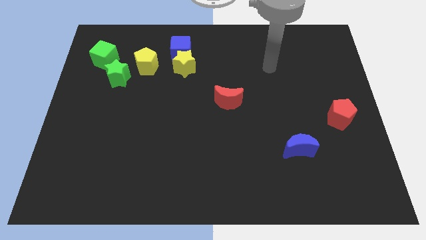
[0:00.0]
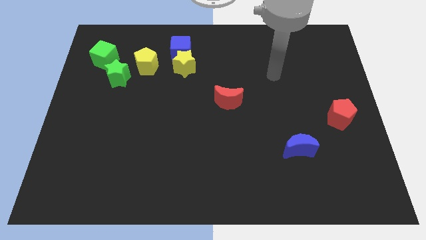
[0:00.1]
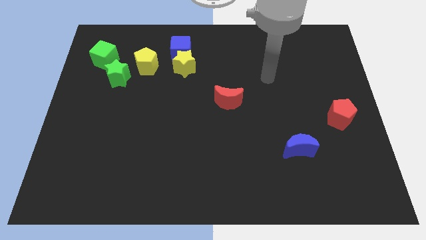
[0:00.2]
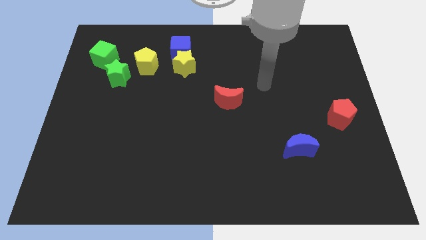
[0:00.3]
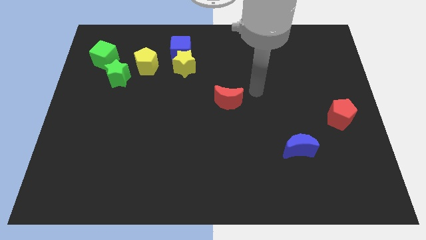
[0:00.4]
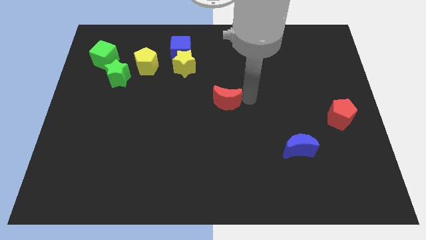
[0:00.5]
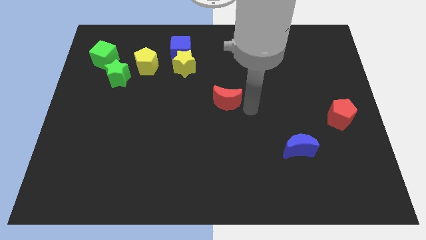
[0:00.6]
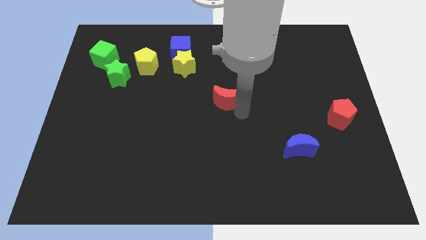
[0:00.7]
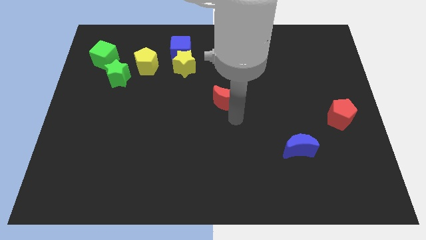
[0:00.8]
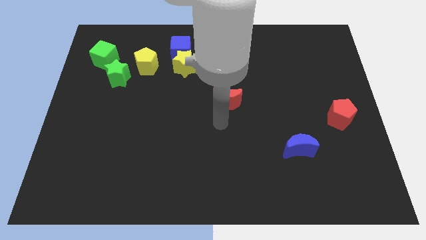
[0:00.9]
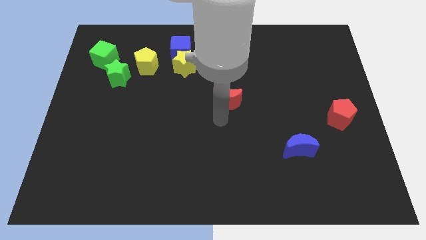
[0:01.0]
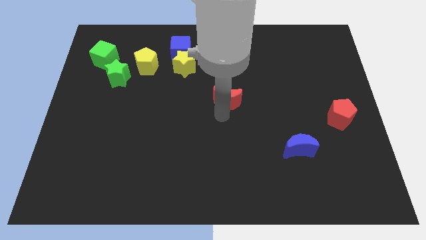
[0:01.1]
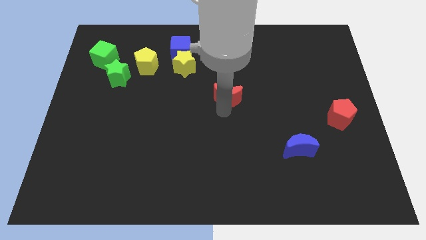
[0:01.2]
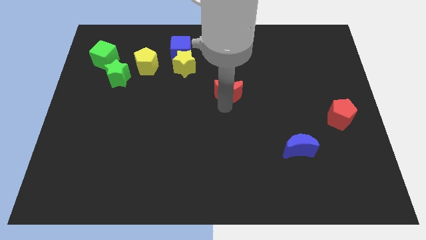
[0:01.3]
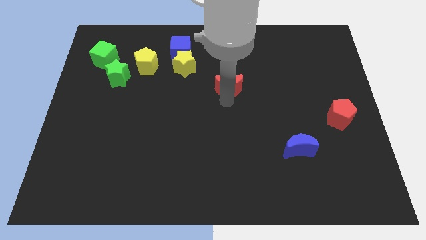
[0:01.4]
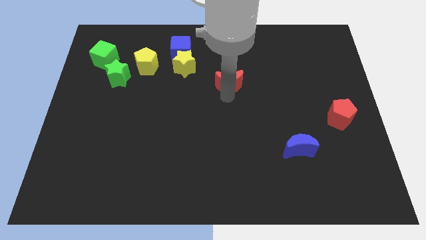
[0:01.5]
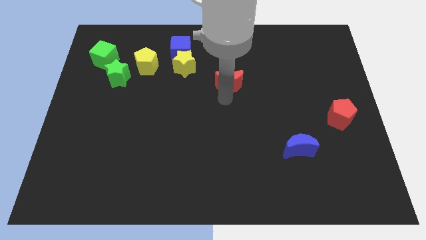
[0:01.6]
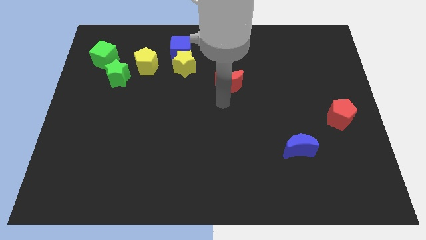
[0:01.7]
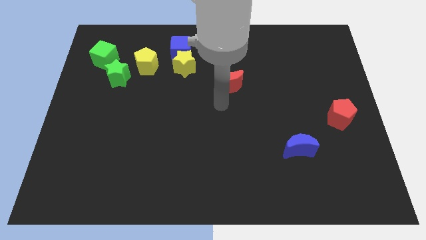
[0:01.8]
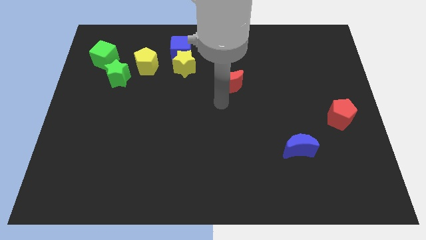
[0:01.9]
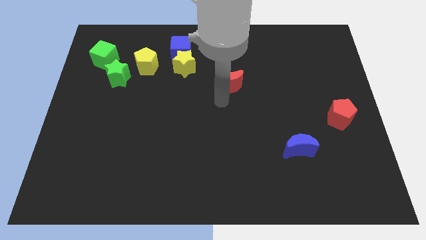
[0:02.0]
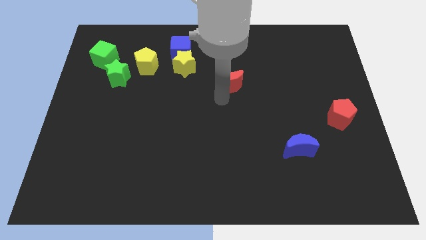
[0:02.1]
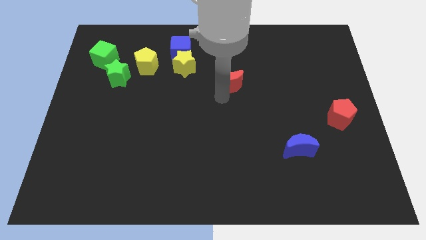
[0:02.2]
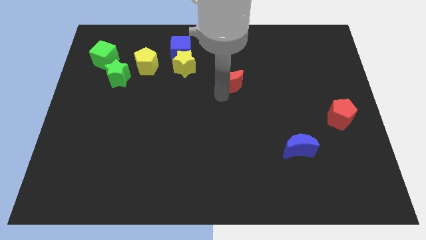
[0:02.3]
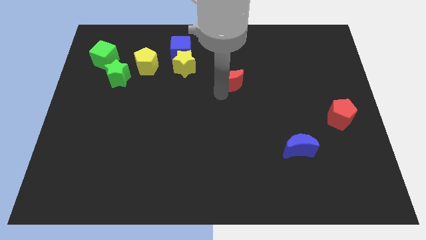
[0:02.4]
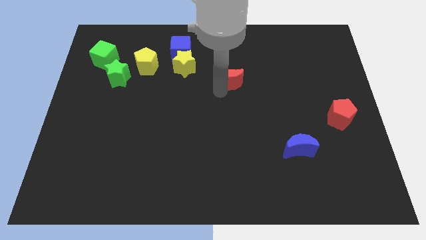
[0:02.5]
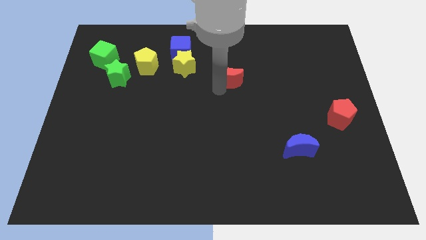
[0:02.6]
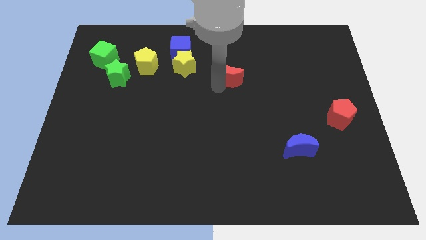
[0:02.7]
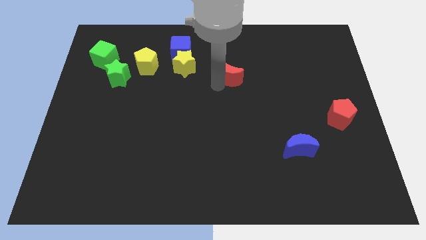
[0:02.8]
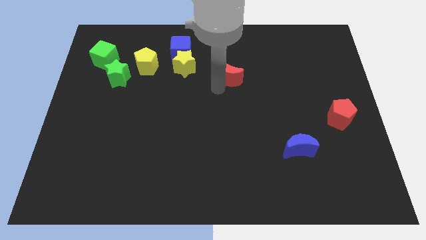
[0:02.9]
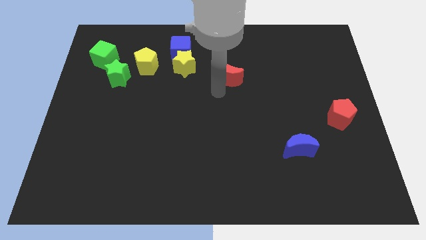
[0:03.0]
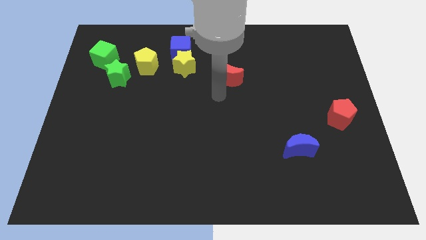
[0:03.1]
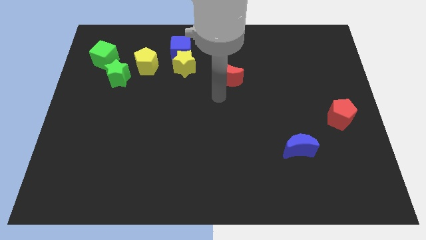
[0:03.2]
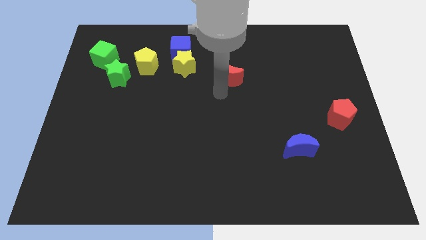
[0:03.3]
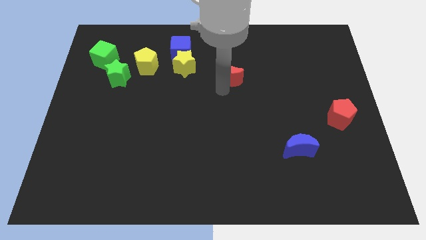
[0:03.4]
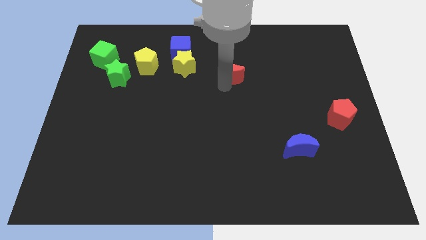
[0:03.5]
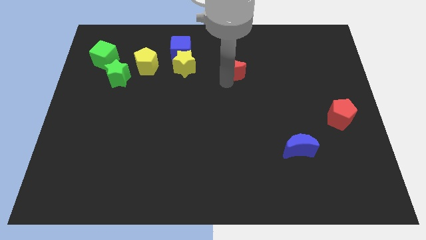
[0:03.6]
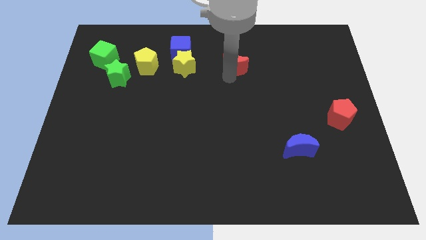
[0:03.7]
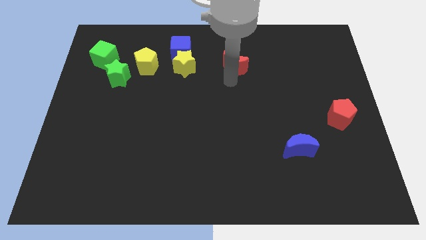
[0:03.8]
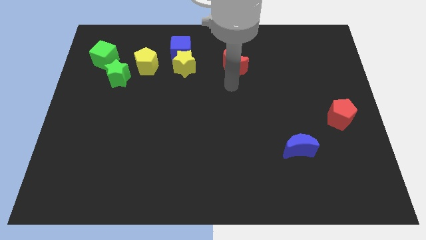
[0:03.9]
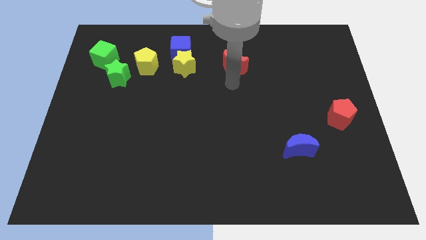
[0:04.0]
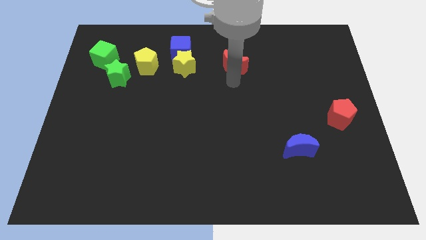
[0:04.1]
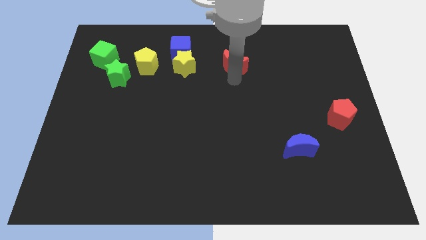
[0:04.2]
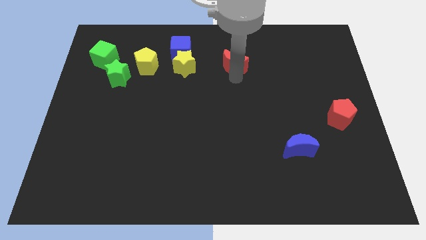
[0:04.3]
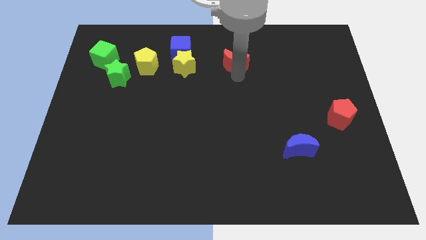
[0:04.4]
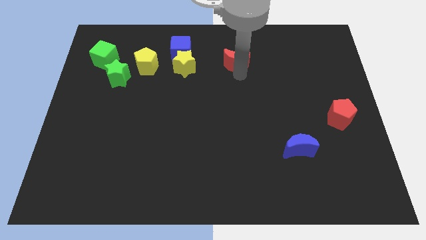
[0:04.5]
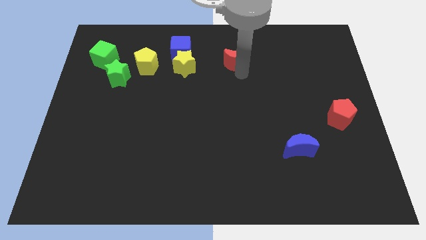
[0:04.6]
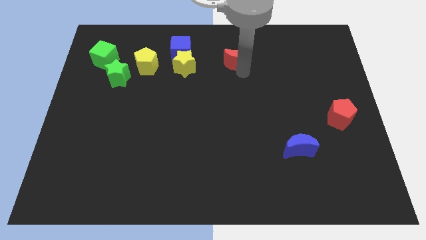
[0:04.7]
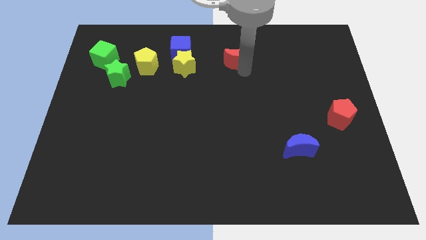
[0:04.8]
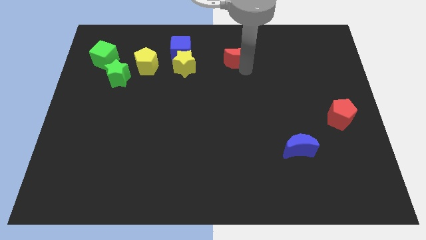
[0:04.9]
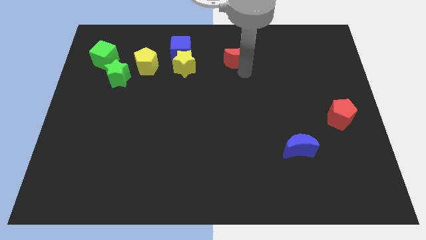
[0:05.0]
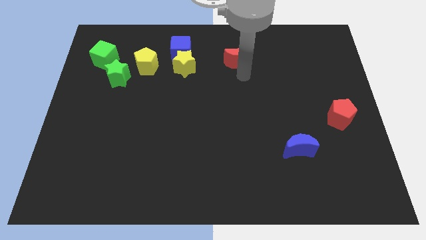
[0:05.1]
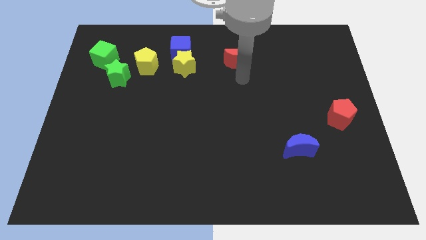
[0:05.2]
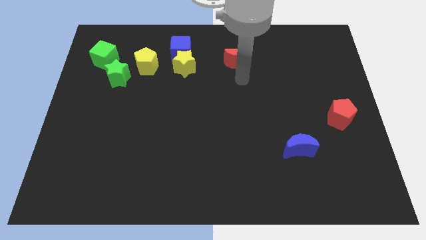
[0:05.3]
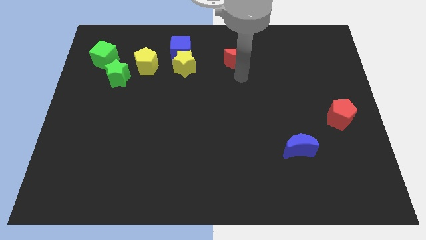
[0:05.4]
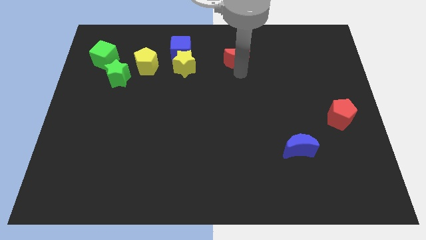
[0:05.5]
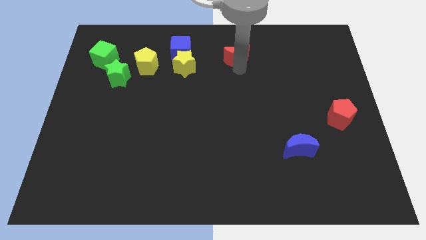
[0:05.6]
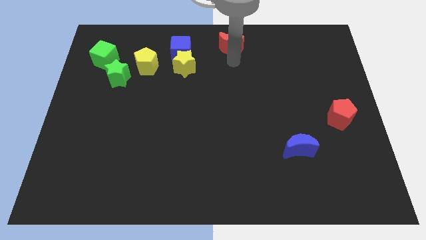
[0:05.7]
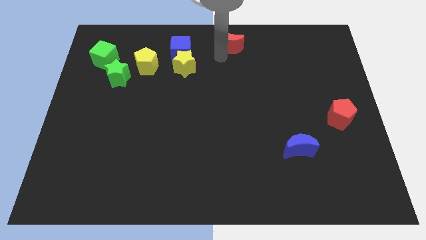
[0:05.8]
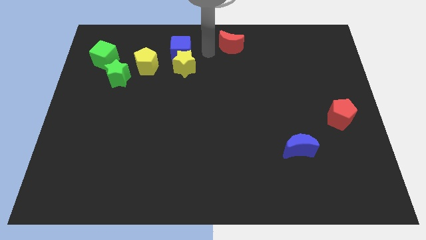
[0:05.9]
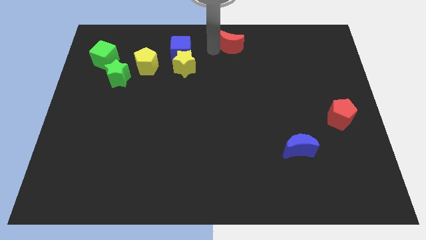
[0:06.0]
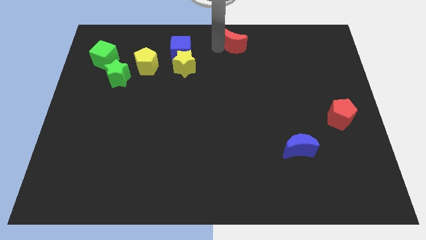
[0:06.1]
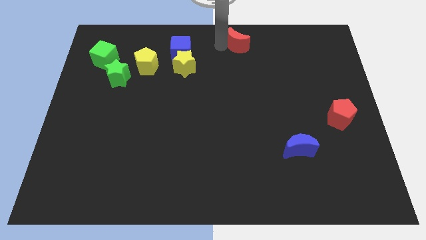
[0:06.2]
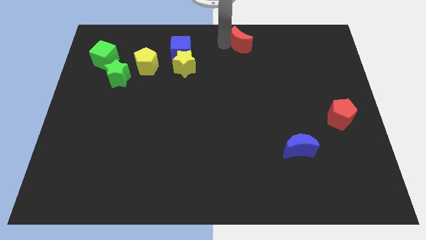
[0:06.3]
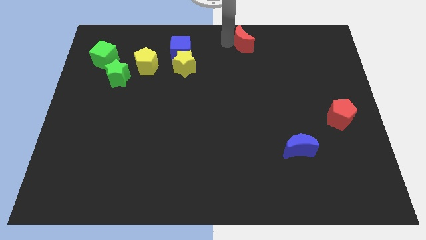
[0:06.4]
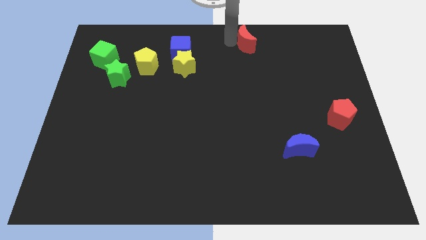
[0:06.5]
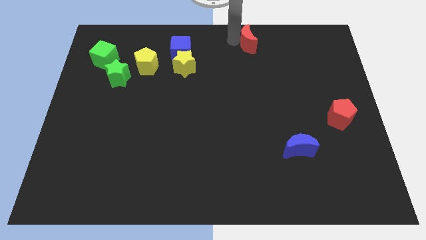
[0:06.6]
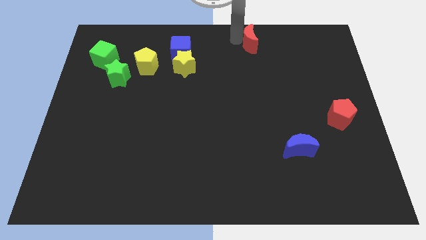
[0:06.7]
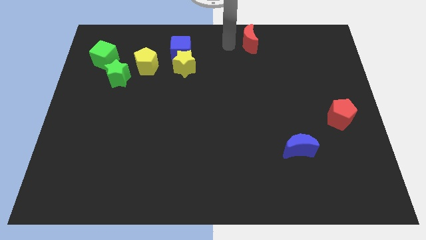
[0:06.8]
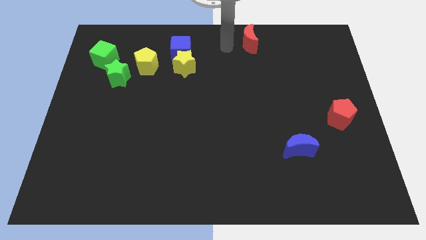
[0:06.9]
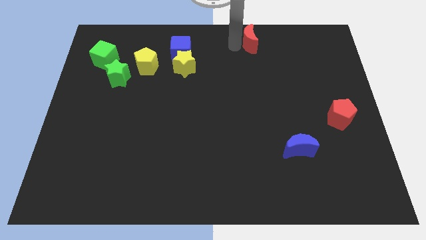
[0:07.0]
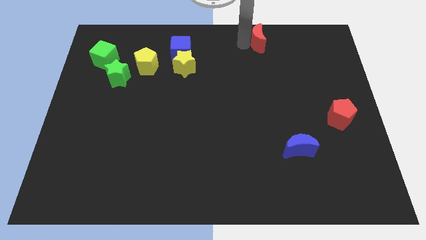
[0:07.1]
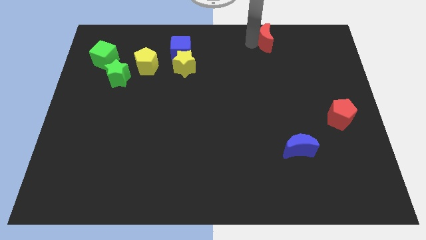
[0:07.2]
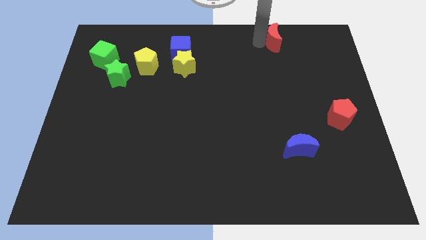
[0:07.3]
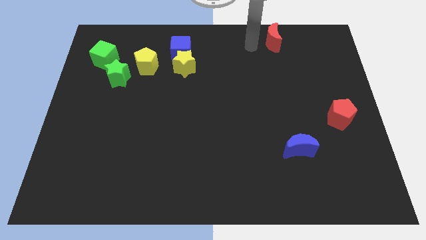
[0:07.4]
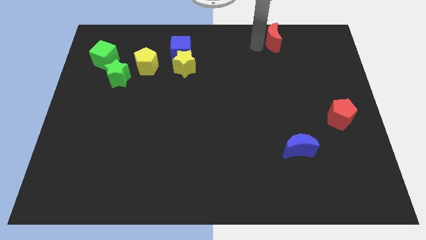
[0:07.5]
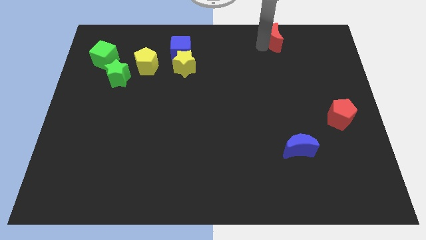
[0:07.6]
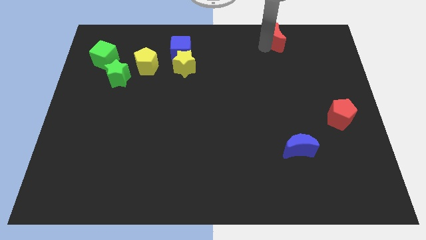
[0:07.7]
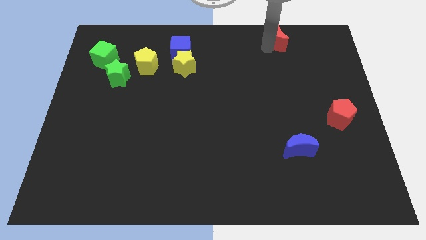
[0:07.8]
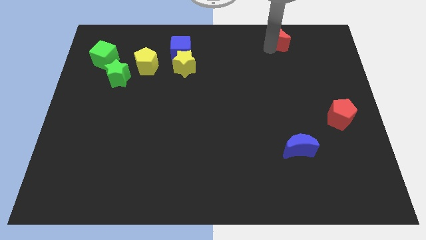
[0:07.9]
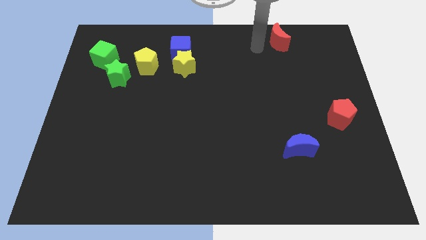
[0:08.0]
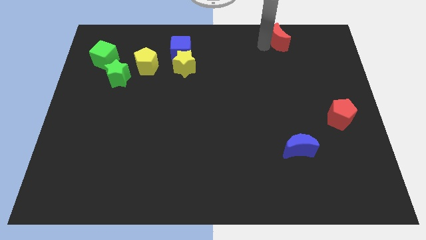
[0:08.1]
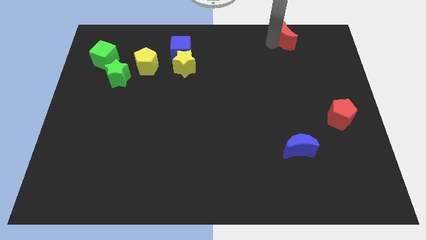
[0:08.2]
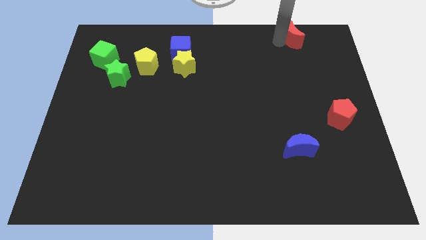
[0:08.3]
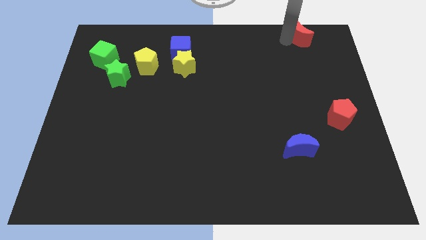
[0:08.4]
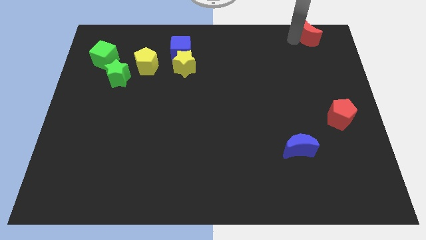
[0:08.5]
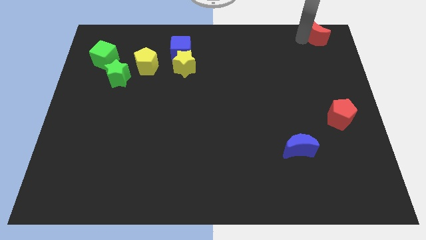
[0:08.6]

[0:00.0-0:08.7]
put the red moon to the upper right corner
